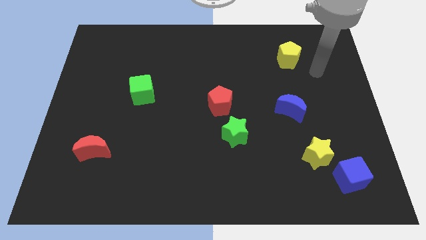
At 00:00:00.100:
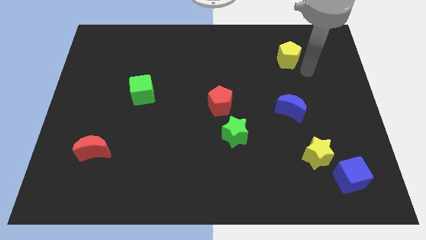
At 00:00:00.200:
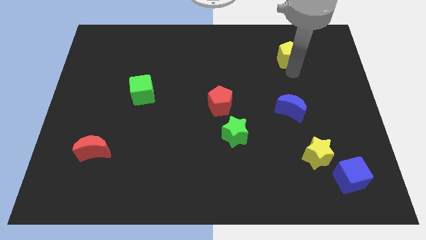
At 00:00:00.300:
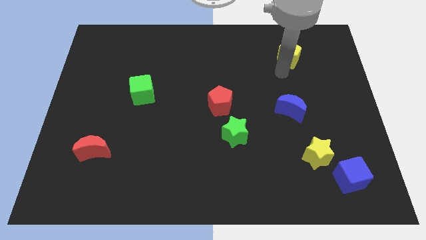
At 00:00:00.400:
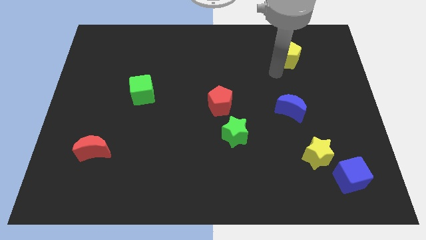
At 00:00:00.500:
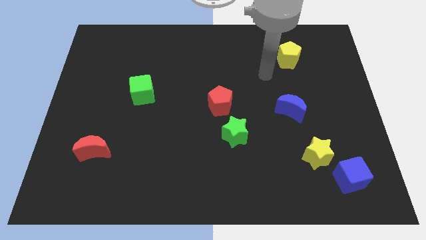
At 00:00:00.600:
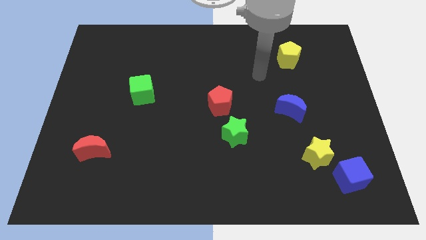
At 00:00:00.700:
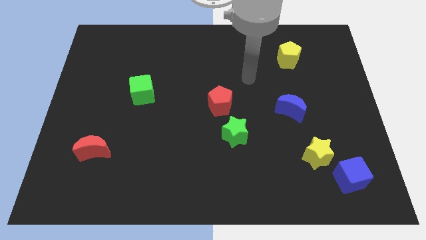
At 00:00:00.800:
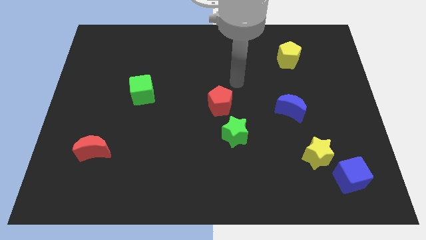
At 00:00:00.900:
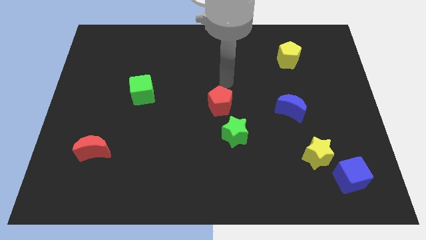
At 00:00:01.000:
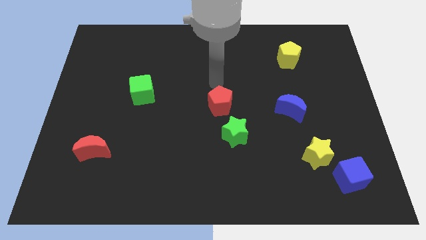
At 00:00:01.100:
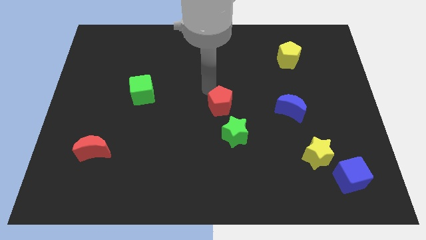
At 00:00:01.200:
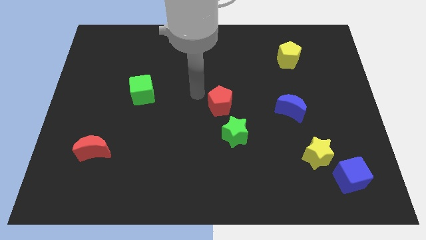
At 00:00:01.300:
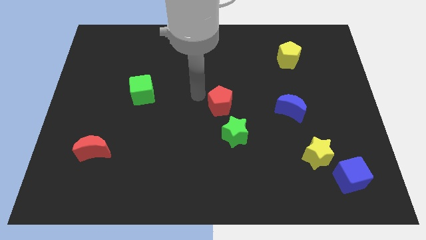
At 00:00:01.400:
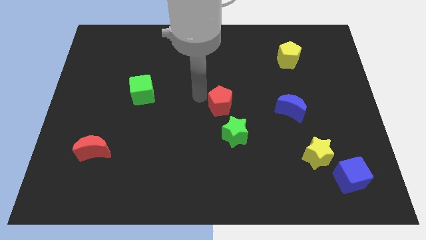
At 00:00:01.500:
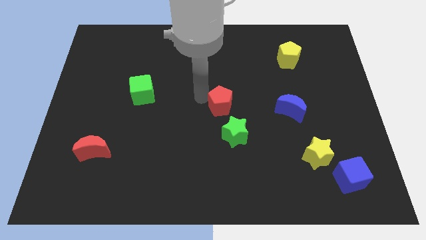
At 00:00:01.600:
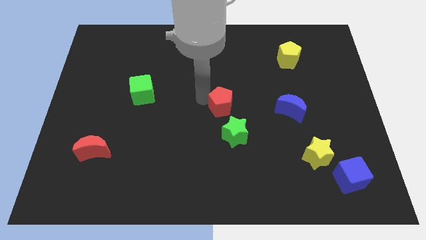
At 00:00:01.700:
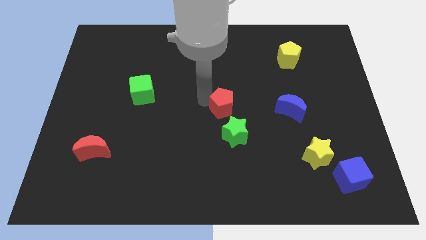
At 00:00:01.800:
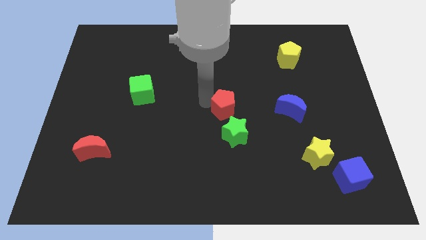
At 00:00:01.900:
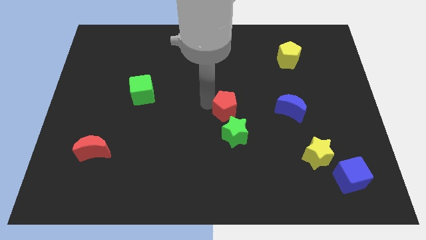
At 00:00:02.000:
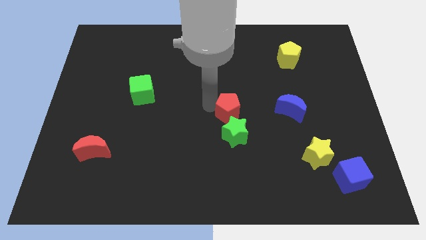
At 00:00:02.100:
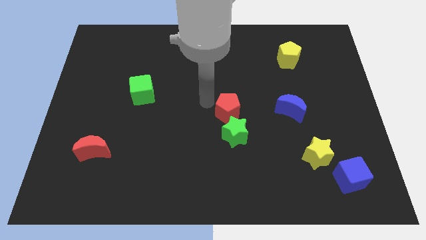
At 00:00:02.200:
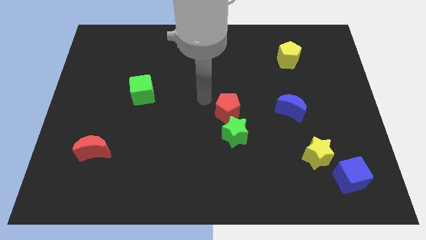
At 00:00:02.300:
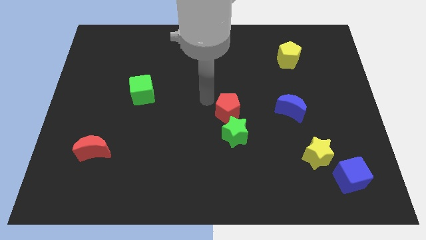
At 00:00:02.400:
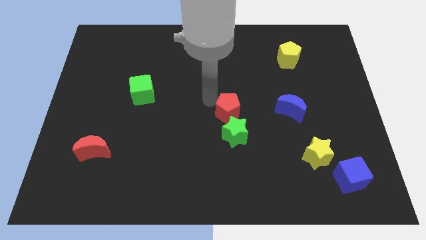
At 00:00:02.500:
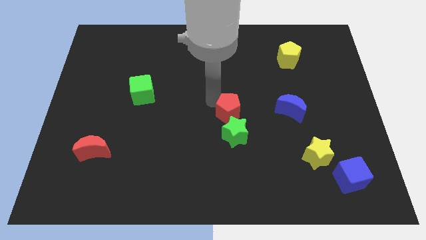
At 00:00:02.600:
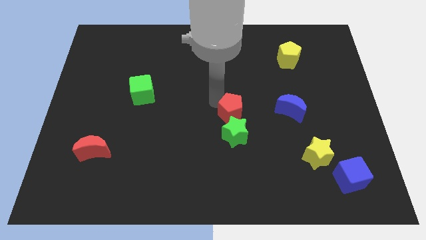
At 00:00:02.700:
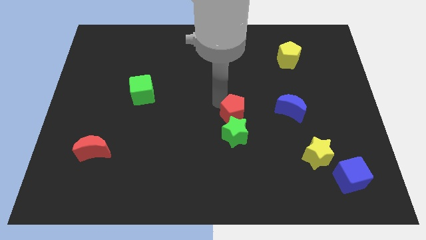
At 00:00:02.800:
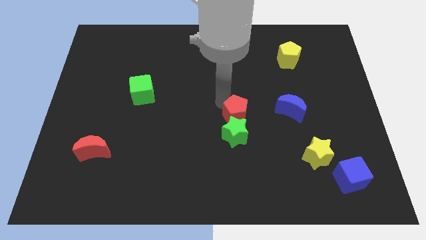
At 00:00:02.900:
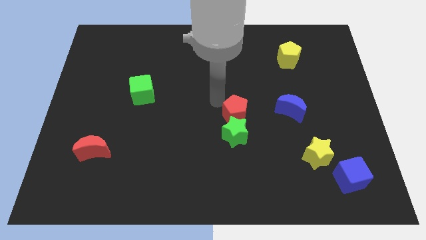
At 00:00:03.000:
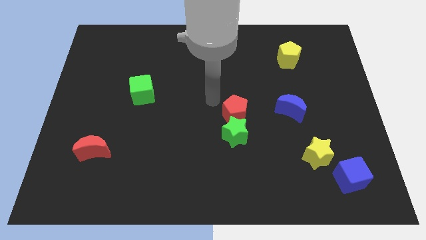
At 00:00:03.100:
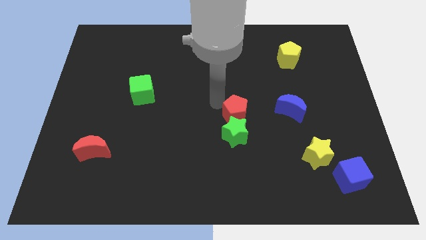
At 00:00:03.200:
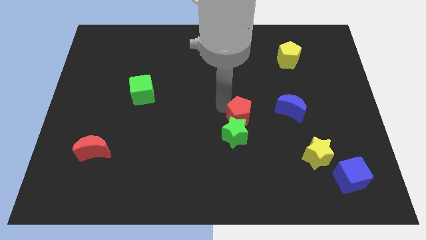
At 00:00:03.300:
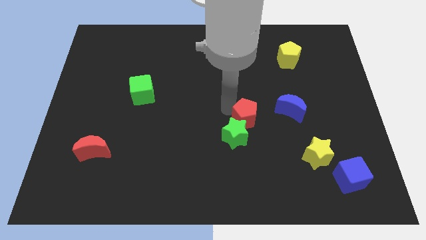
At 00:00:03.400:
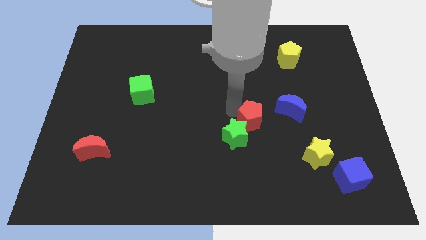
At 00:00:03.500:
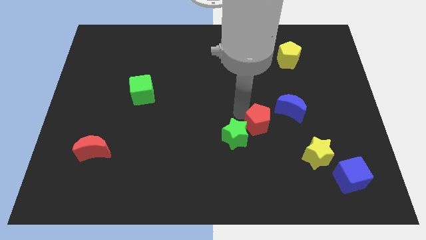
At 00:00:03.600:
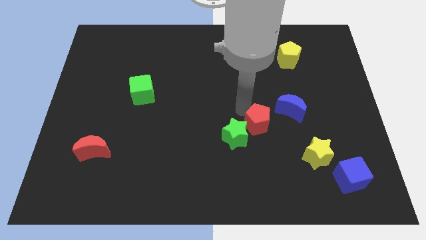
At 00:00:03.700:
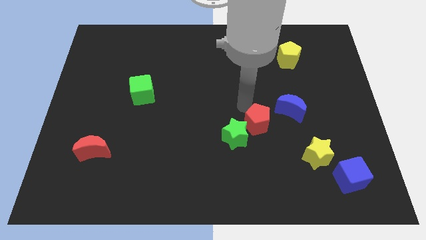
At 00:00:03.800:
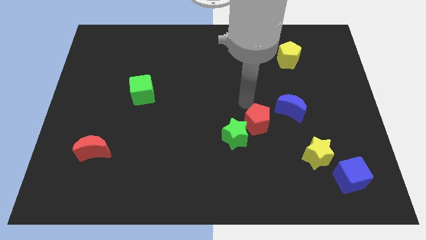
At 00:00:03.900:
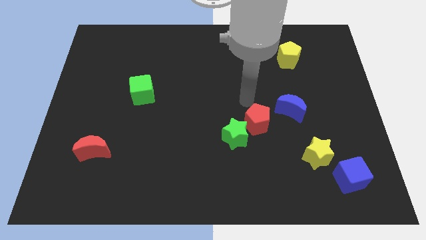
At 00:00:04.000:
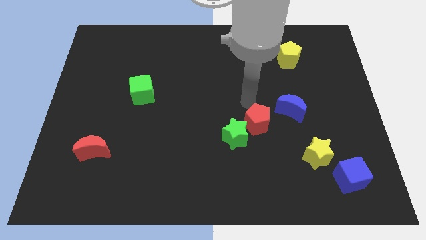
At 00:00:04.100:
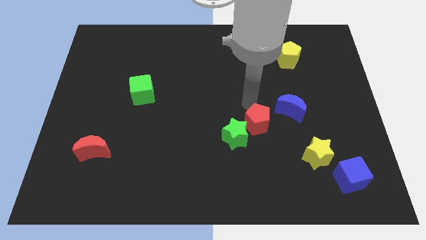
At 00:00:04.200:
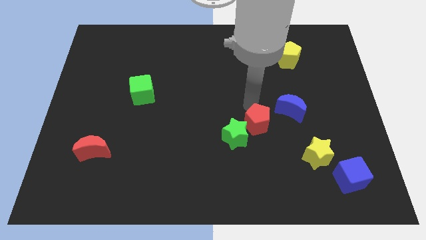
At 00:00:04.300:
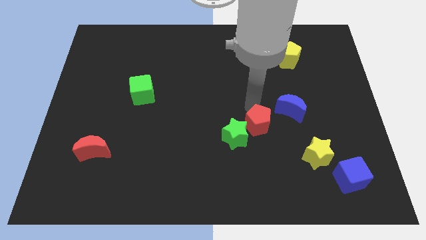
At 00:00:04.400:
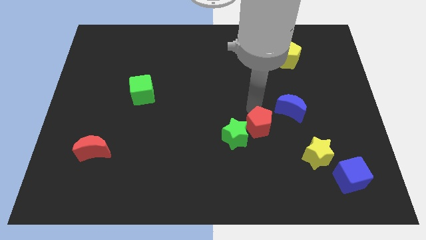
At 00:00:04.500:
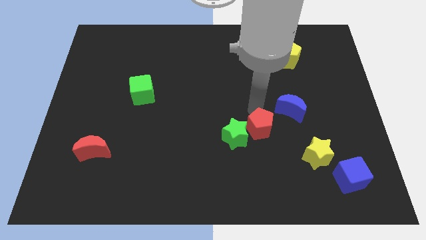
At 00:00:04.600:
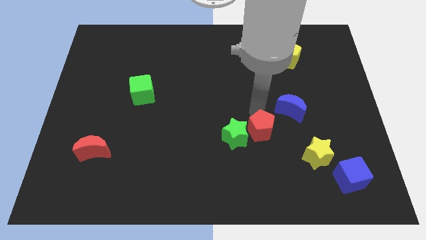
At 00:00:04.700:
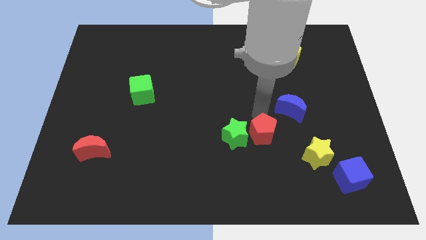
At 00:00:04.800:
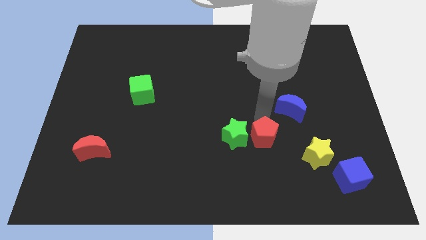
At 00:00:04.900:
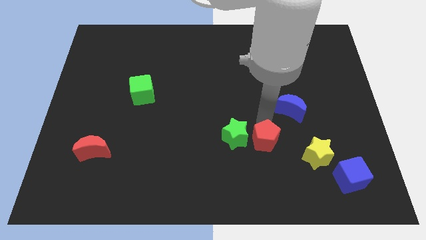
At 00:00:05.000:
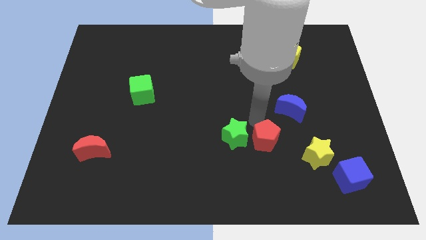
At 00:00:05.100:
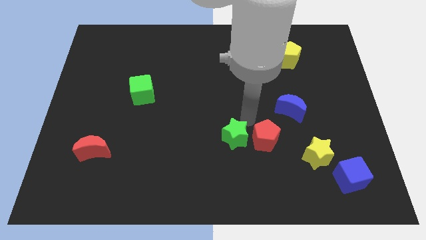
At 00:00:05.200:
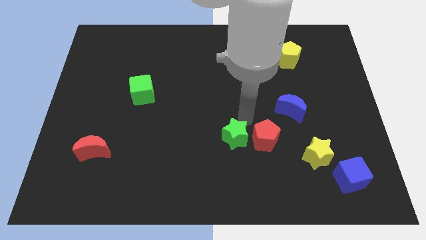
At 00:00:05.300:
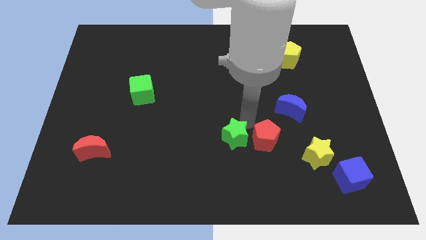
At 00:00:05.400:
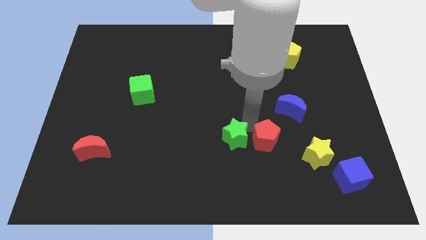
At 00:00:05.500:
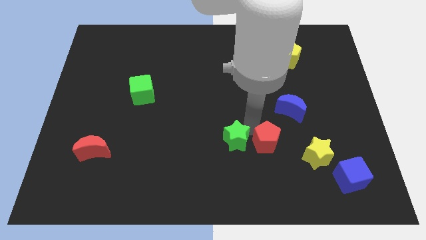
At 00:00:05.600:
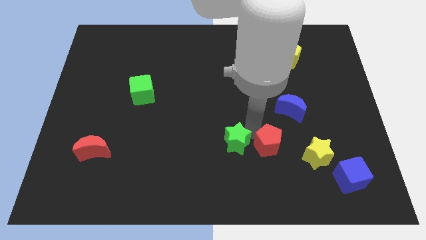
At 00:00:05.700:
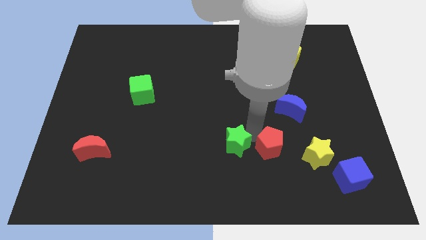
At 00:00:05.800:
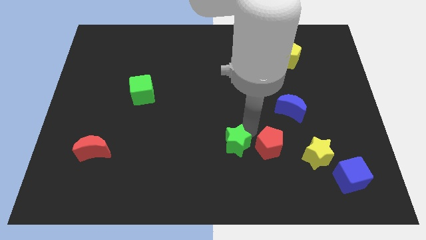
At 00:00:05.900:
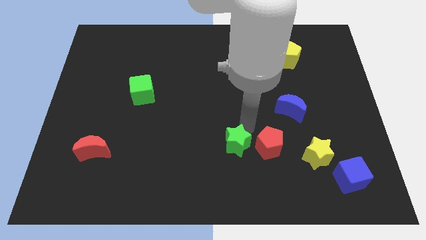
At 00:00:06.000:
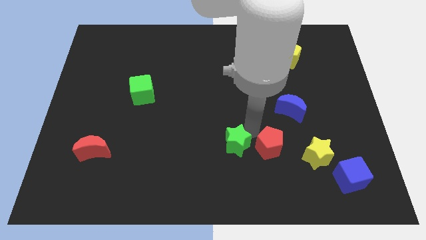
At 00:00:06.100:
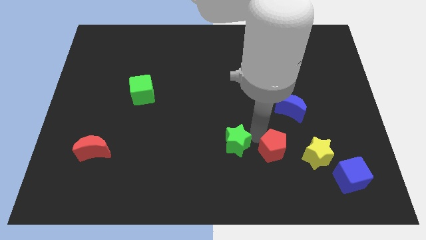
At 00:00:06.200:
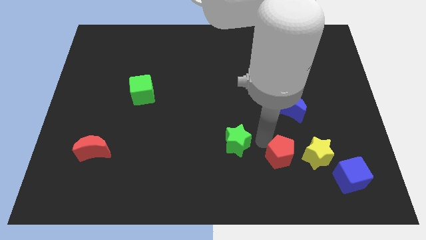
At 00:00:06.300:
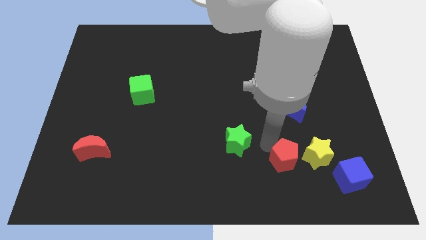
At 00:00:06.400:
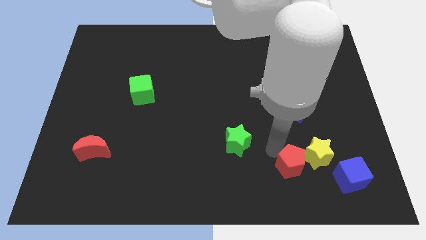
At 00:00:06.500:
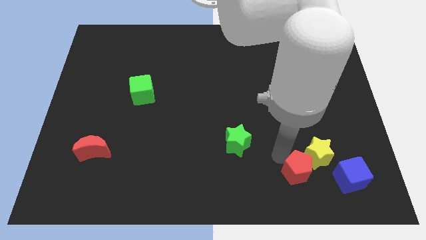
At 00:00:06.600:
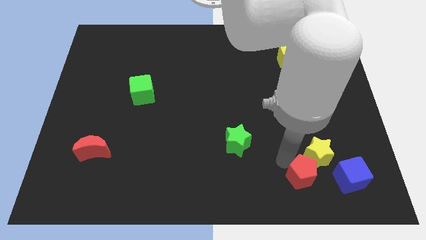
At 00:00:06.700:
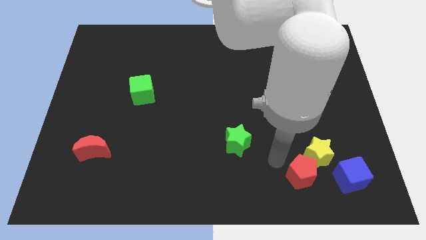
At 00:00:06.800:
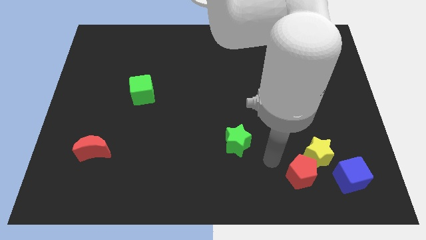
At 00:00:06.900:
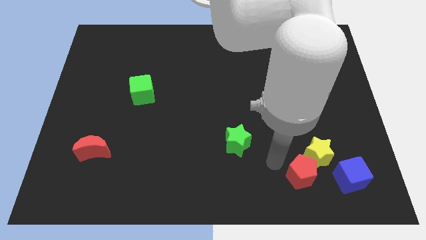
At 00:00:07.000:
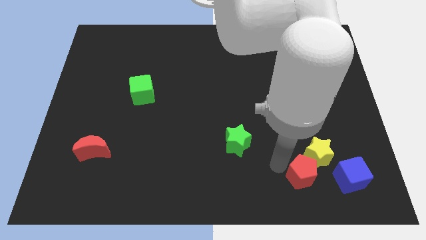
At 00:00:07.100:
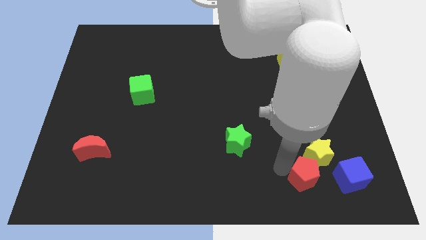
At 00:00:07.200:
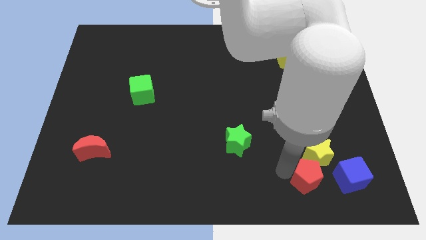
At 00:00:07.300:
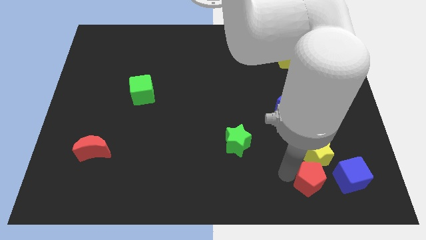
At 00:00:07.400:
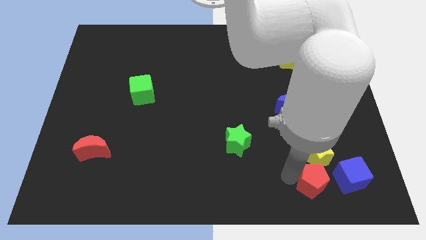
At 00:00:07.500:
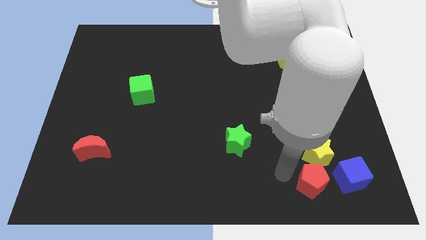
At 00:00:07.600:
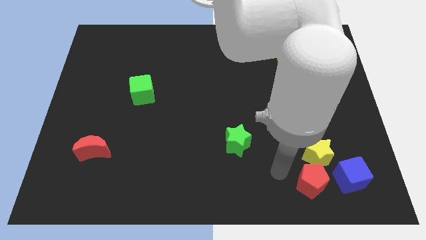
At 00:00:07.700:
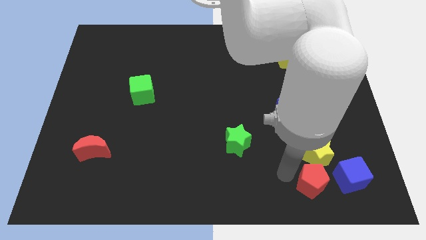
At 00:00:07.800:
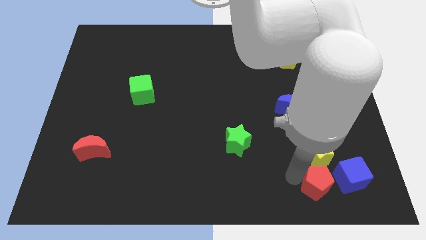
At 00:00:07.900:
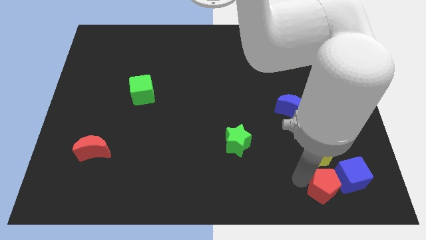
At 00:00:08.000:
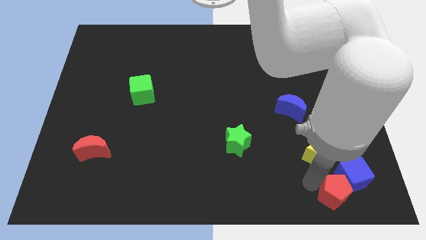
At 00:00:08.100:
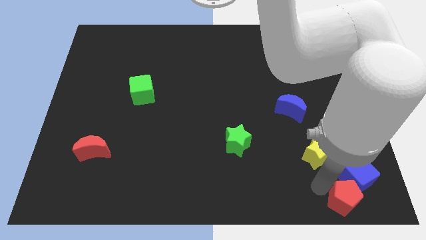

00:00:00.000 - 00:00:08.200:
push the red pentagon to the bottom right corner
